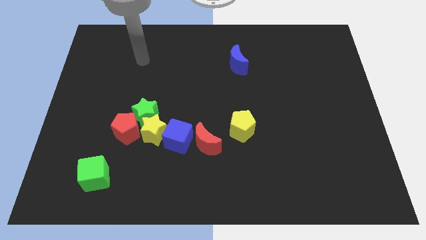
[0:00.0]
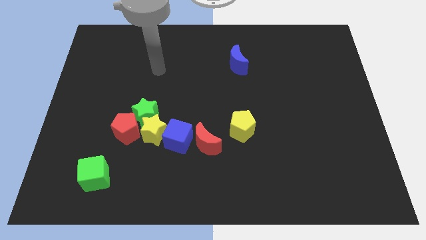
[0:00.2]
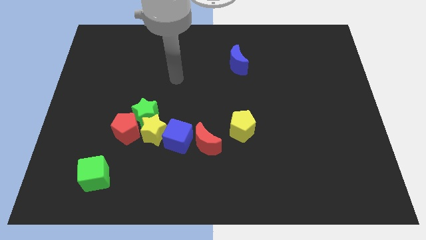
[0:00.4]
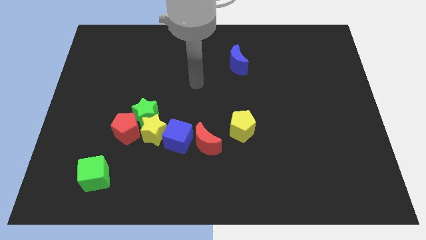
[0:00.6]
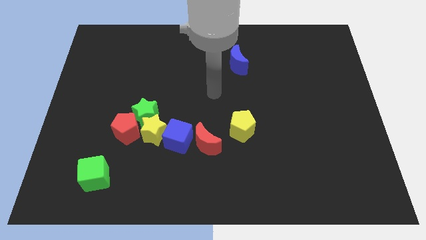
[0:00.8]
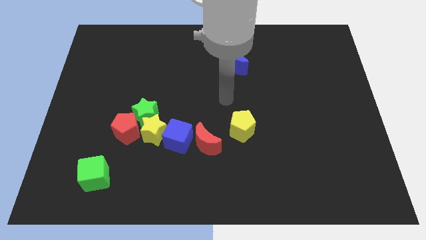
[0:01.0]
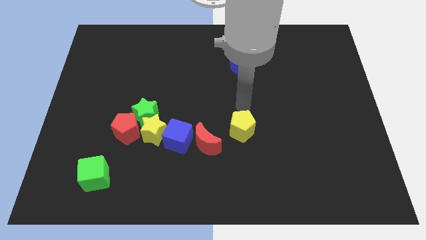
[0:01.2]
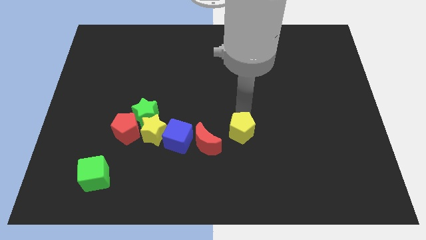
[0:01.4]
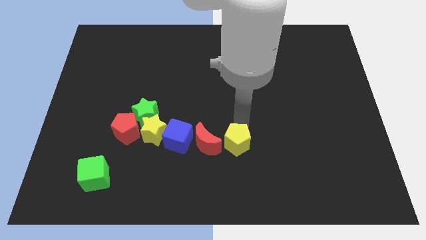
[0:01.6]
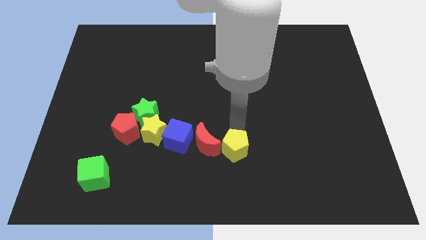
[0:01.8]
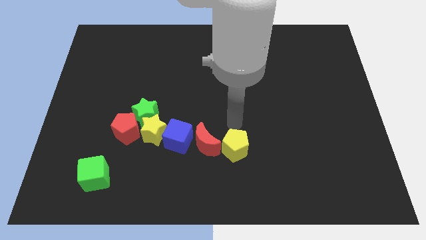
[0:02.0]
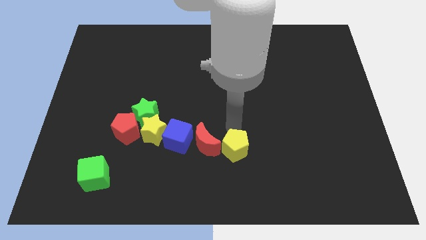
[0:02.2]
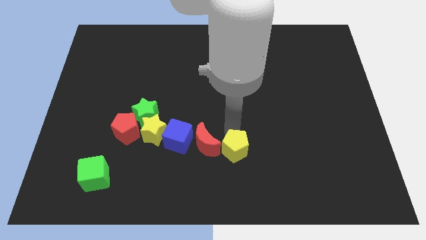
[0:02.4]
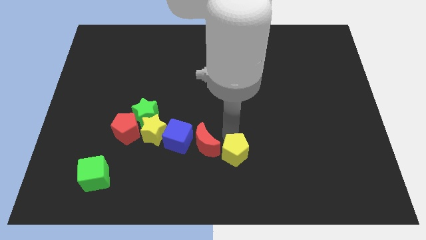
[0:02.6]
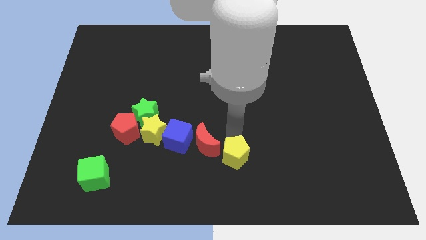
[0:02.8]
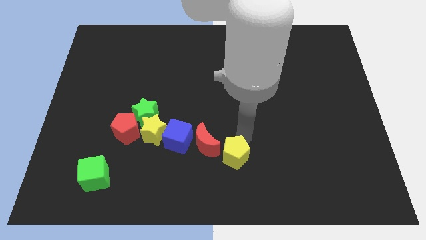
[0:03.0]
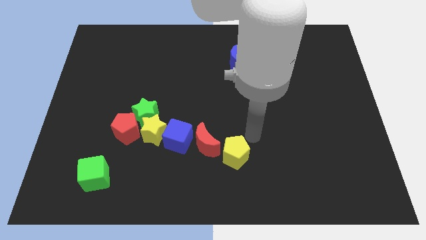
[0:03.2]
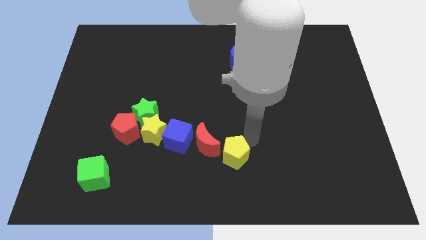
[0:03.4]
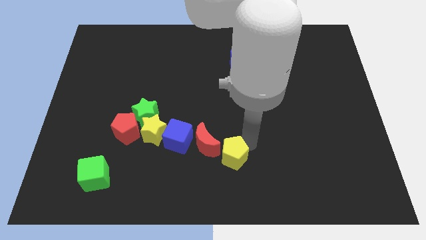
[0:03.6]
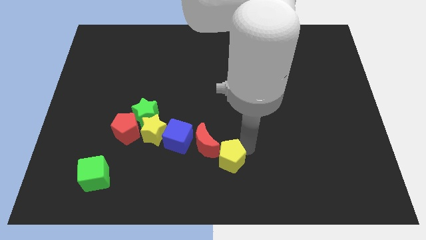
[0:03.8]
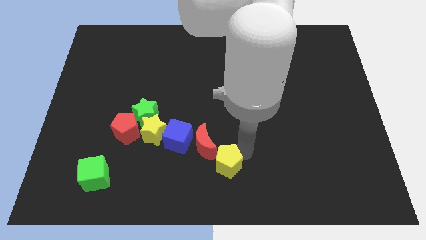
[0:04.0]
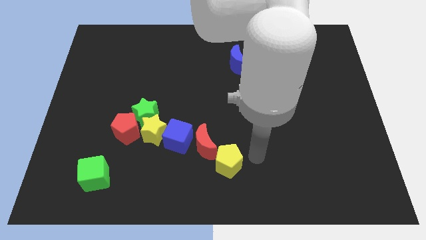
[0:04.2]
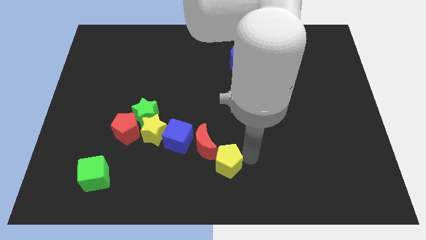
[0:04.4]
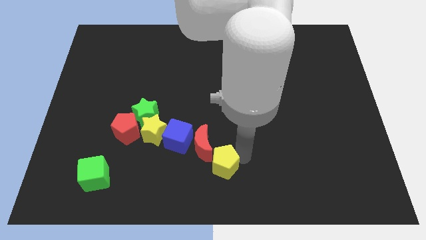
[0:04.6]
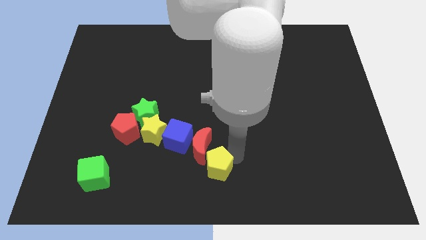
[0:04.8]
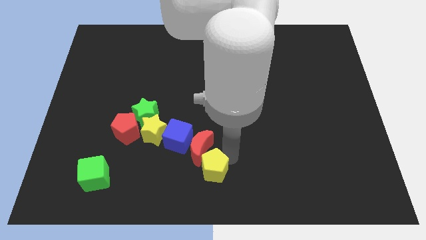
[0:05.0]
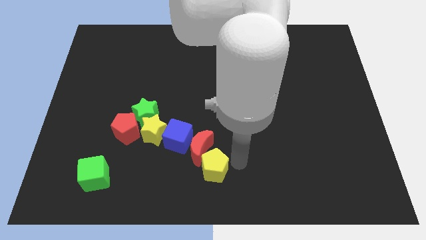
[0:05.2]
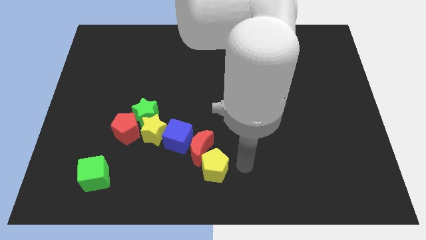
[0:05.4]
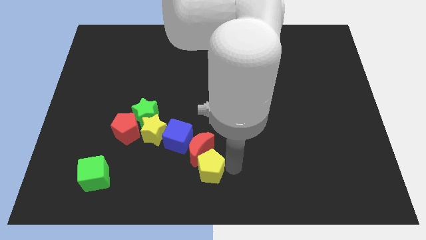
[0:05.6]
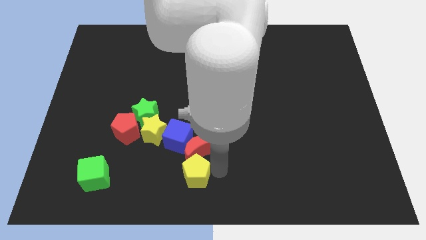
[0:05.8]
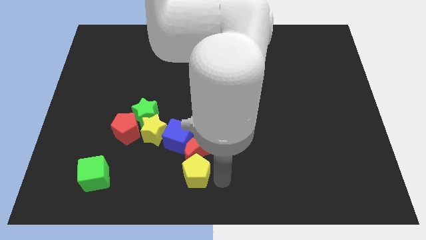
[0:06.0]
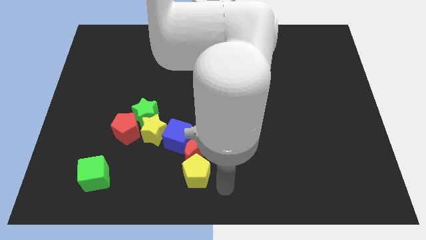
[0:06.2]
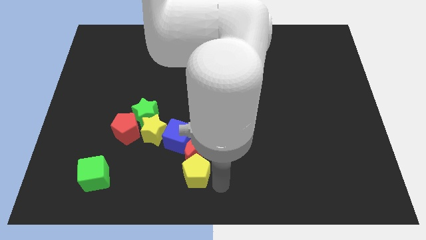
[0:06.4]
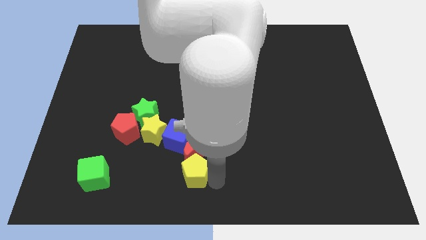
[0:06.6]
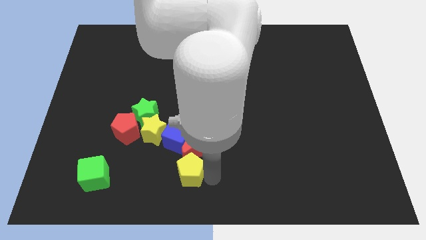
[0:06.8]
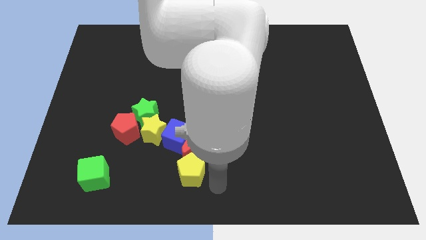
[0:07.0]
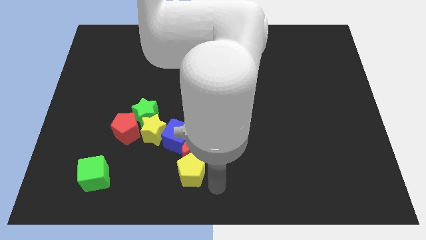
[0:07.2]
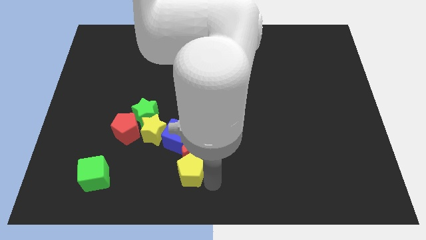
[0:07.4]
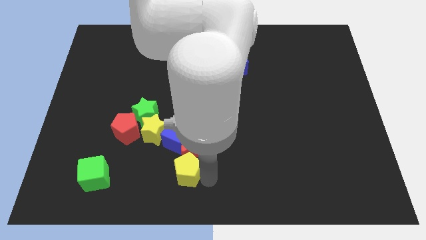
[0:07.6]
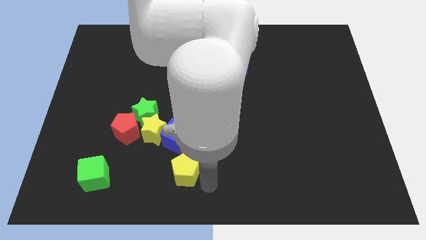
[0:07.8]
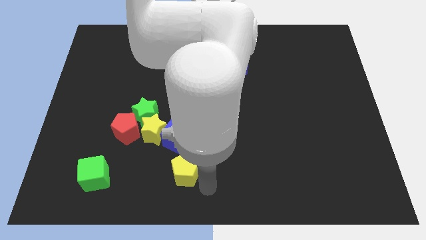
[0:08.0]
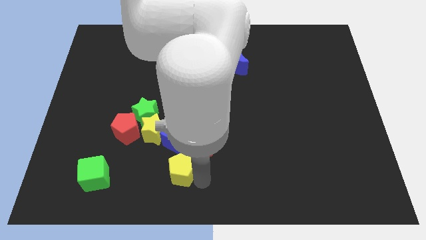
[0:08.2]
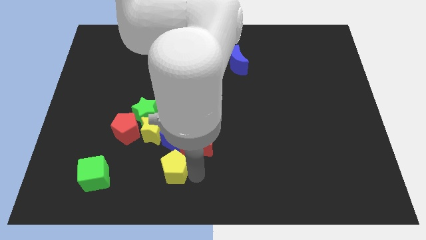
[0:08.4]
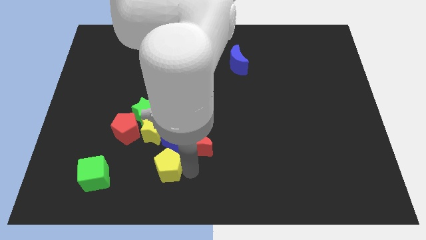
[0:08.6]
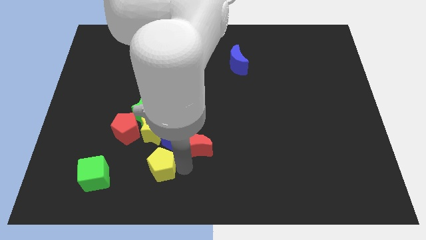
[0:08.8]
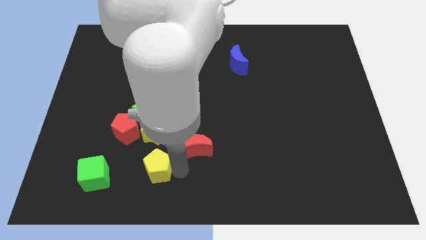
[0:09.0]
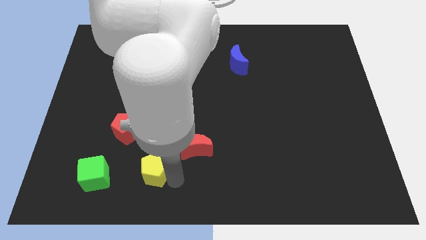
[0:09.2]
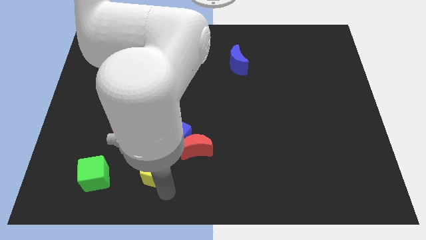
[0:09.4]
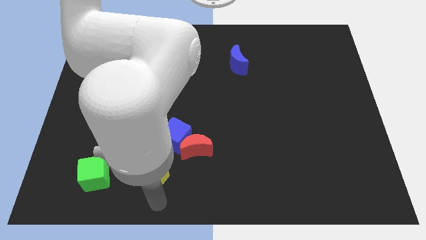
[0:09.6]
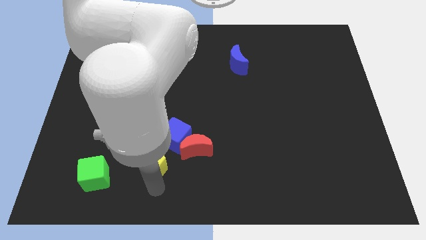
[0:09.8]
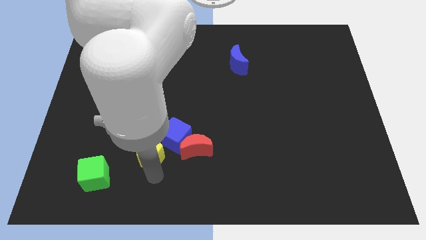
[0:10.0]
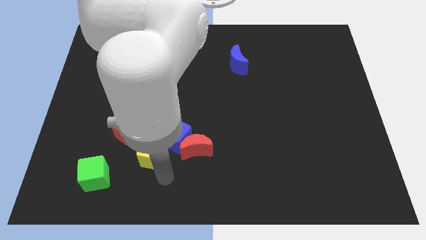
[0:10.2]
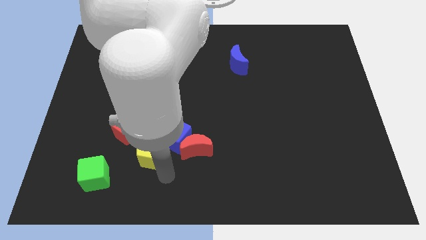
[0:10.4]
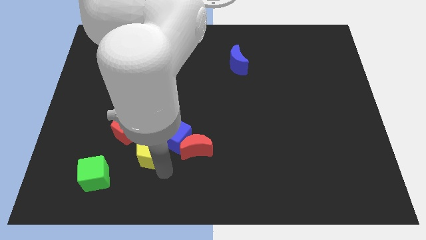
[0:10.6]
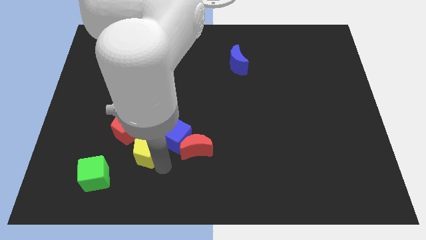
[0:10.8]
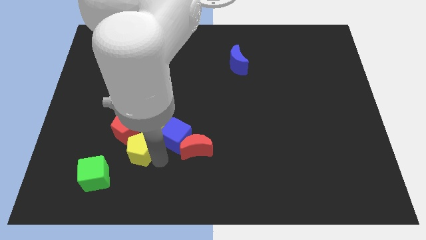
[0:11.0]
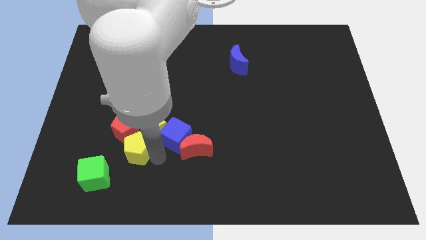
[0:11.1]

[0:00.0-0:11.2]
push the yellow pentagon to the red pentagon

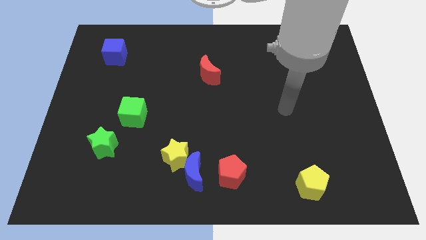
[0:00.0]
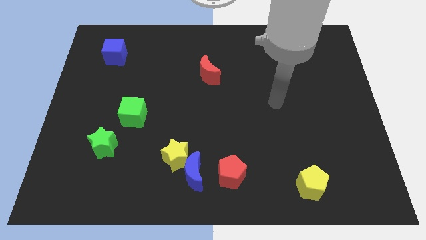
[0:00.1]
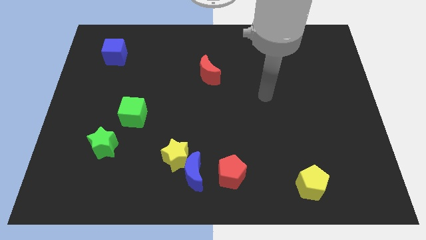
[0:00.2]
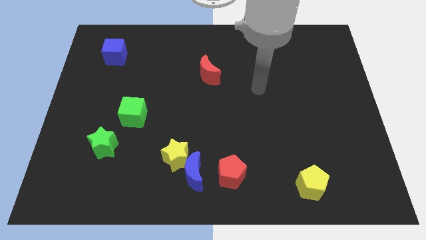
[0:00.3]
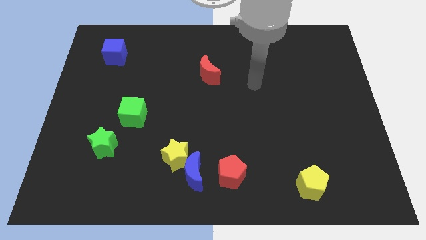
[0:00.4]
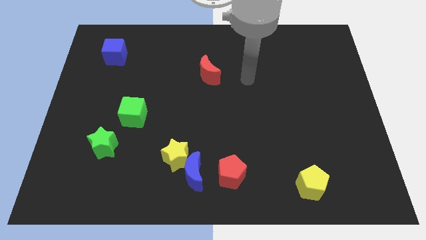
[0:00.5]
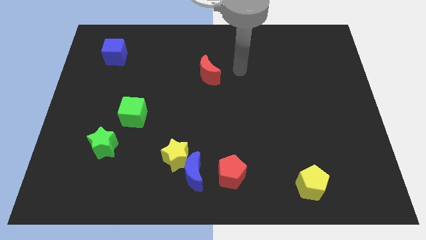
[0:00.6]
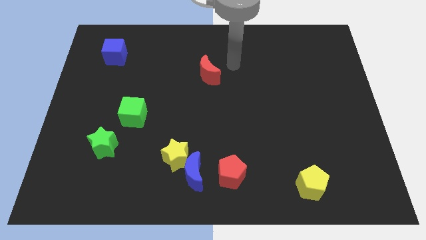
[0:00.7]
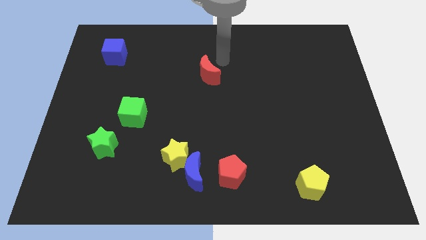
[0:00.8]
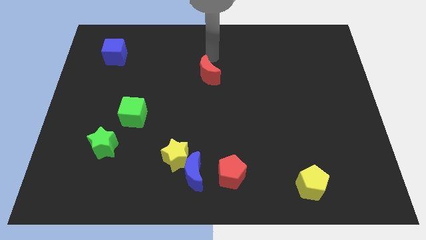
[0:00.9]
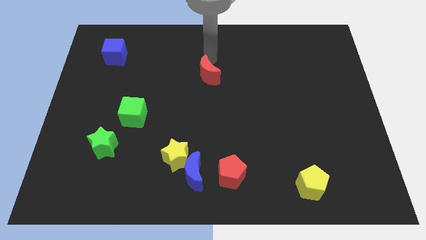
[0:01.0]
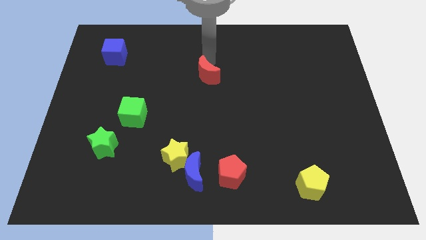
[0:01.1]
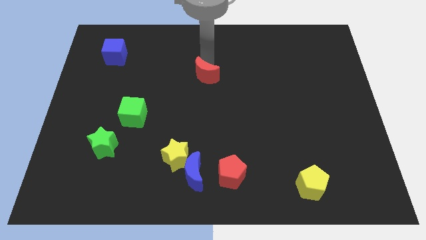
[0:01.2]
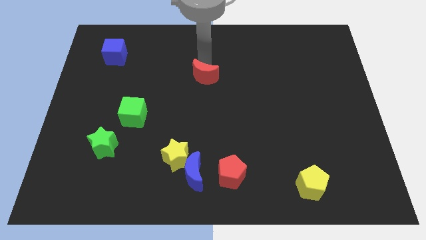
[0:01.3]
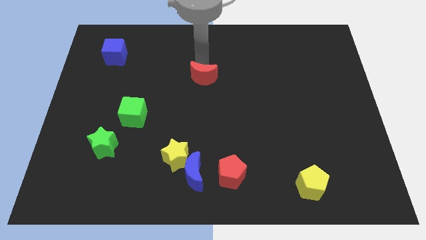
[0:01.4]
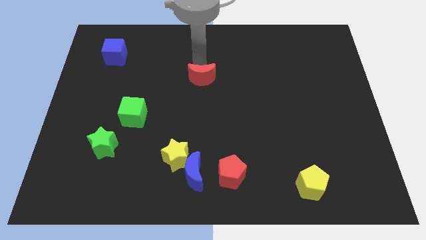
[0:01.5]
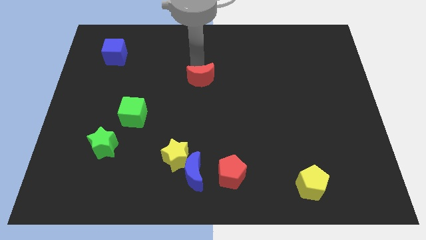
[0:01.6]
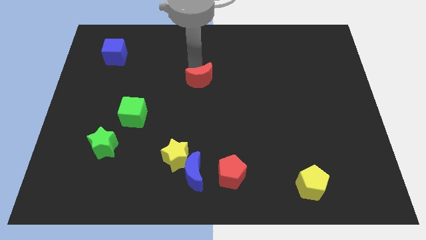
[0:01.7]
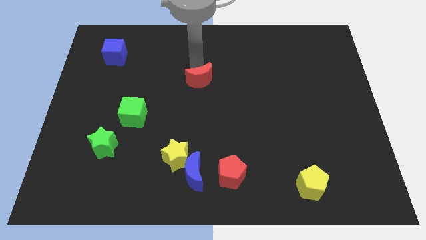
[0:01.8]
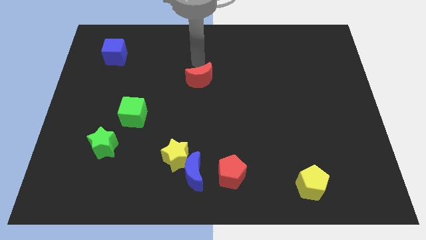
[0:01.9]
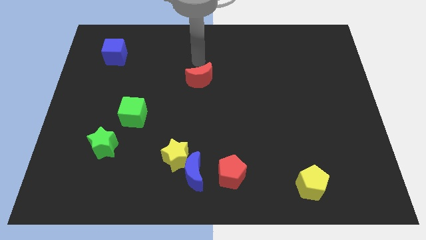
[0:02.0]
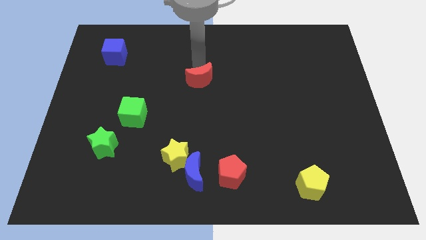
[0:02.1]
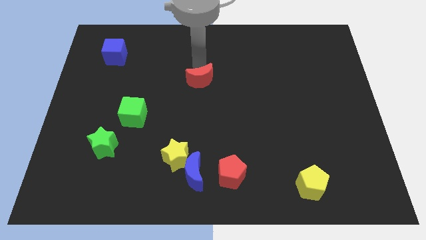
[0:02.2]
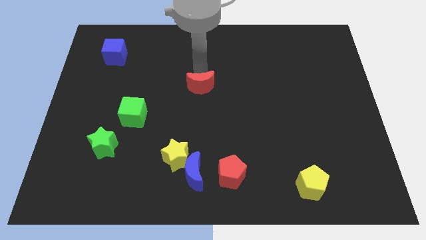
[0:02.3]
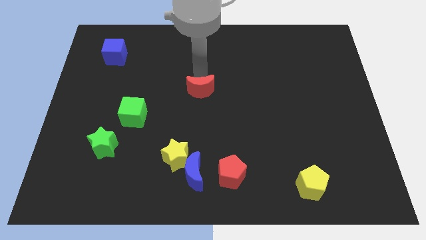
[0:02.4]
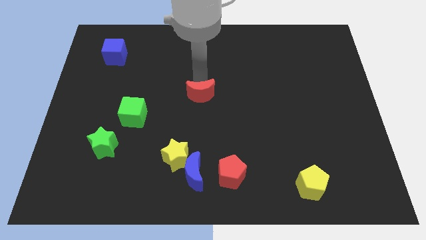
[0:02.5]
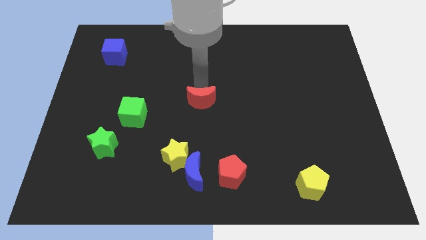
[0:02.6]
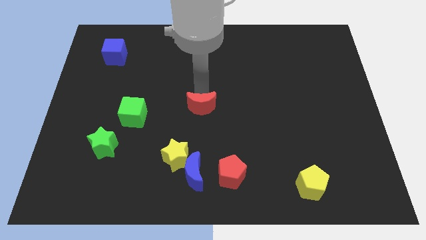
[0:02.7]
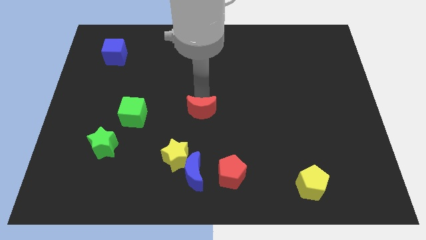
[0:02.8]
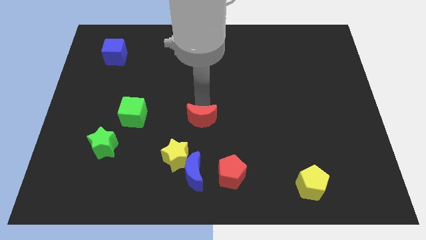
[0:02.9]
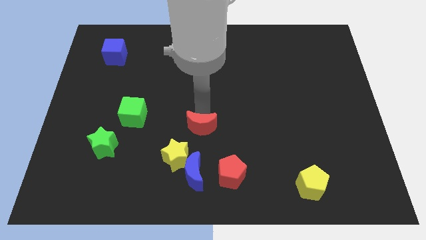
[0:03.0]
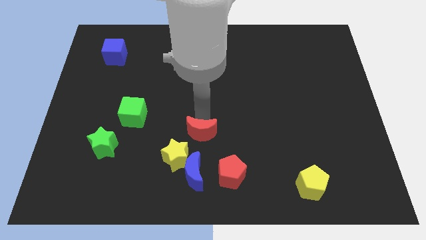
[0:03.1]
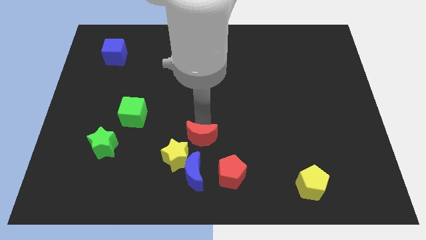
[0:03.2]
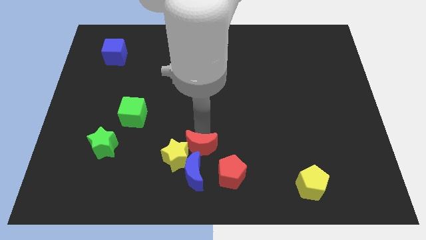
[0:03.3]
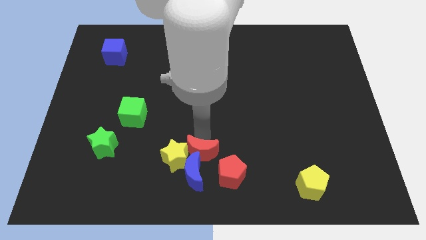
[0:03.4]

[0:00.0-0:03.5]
slide the red moon to the blue moon
